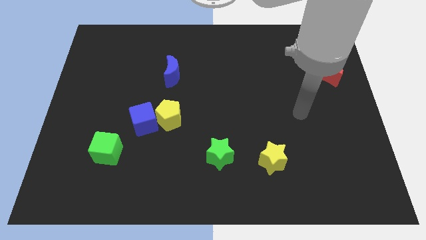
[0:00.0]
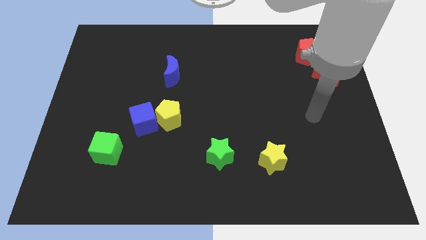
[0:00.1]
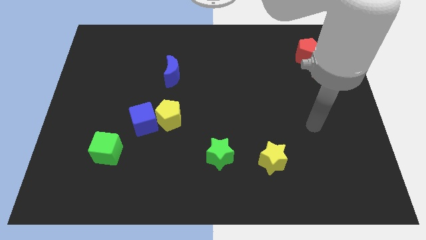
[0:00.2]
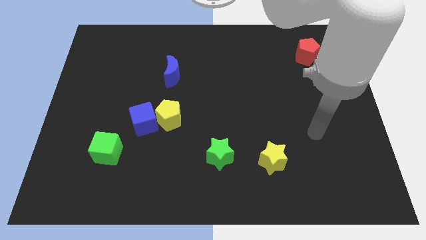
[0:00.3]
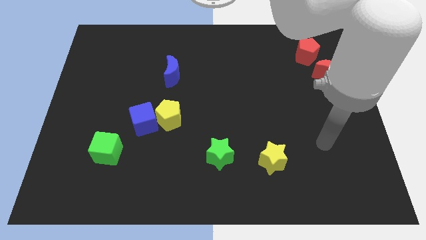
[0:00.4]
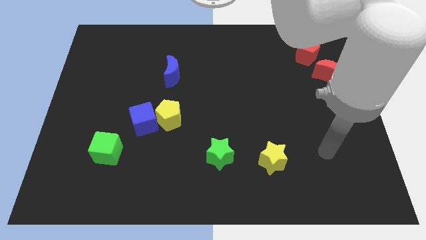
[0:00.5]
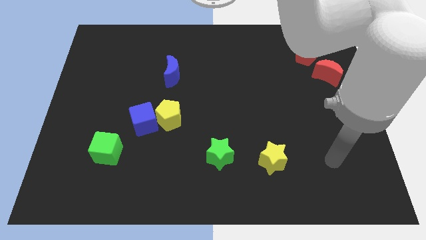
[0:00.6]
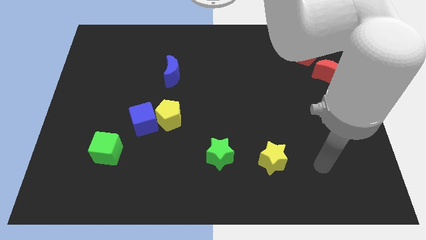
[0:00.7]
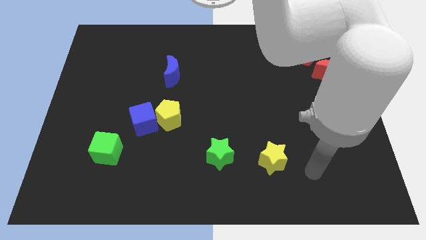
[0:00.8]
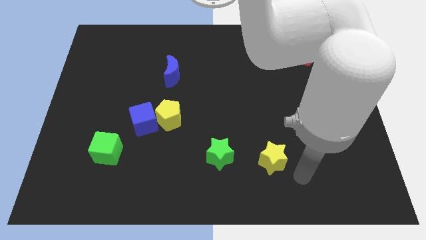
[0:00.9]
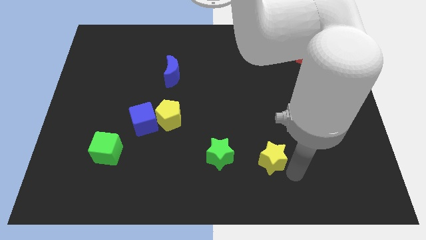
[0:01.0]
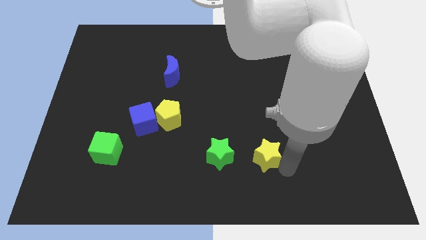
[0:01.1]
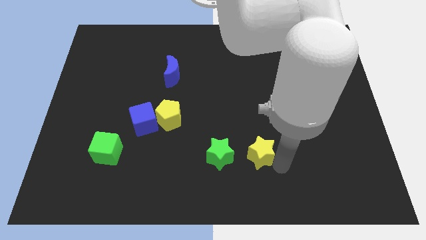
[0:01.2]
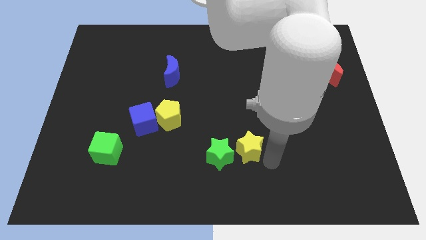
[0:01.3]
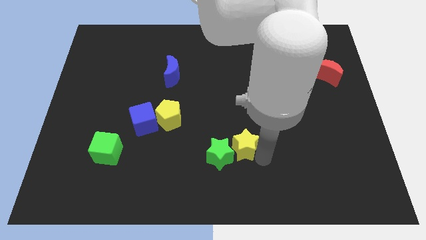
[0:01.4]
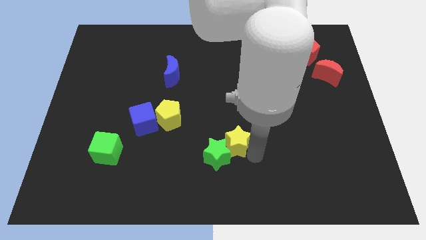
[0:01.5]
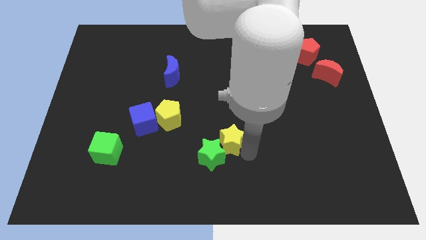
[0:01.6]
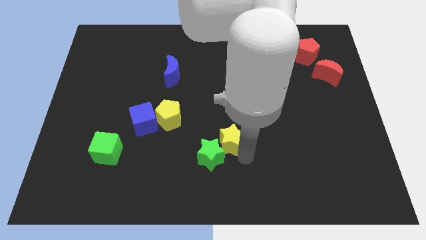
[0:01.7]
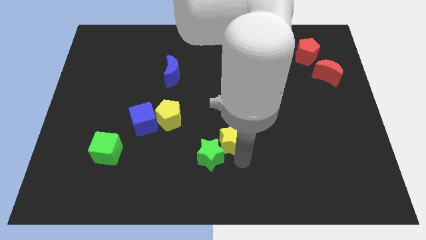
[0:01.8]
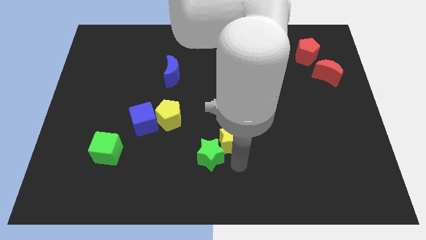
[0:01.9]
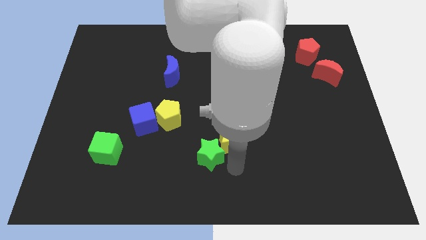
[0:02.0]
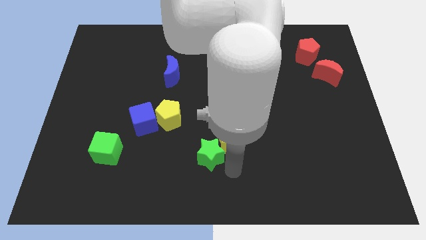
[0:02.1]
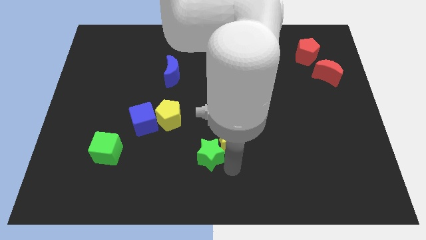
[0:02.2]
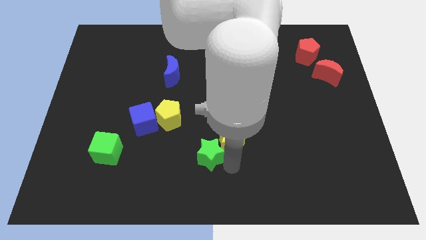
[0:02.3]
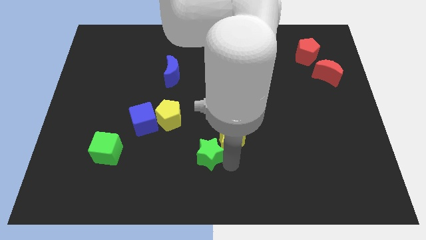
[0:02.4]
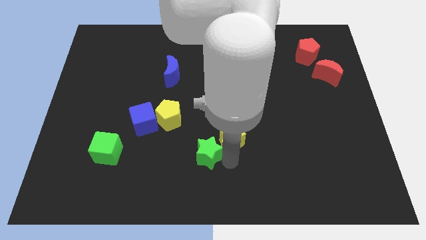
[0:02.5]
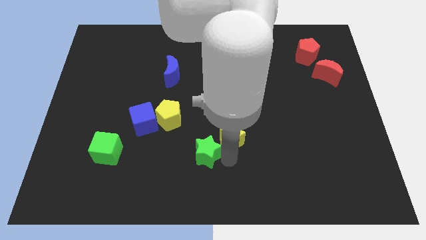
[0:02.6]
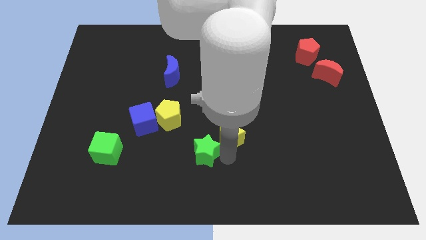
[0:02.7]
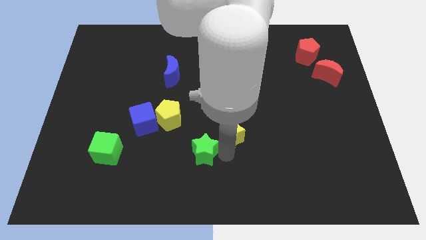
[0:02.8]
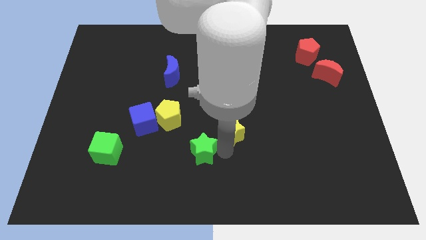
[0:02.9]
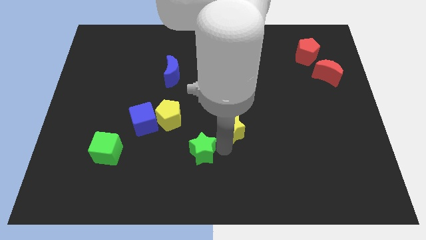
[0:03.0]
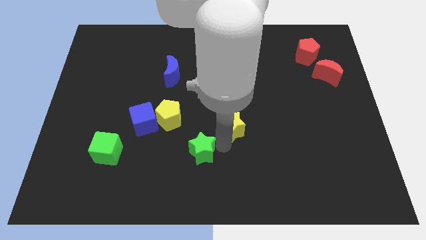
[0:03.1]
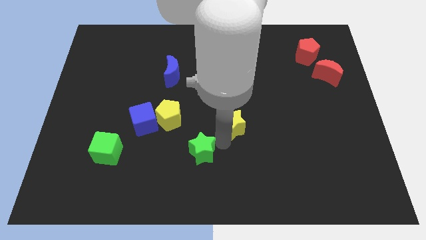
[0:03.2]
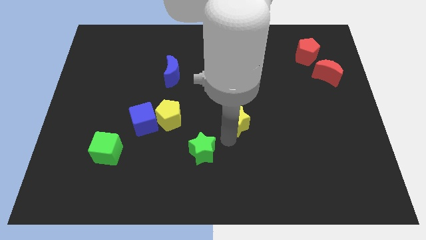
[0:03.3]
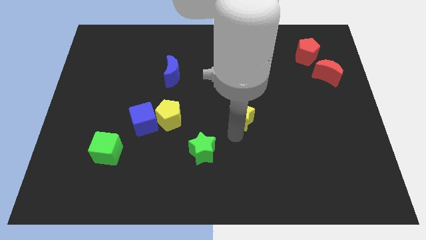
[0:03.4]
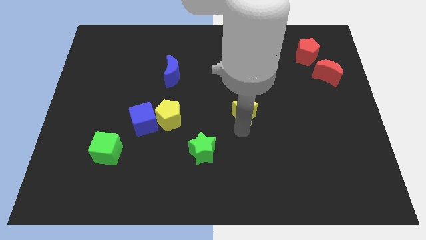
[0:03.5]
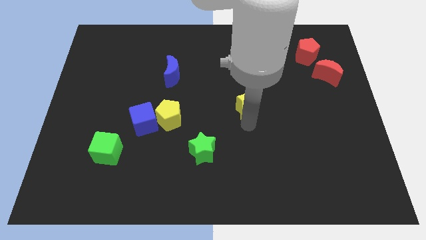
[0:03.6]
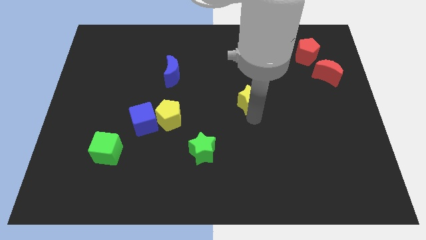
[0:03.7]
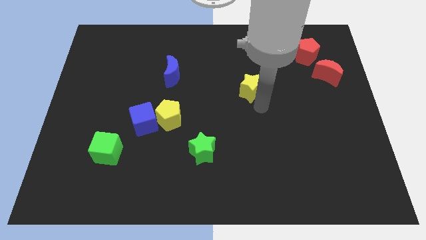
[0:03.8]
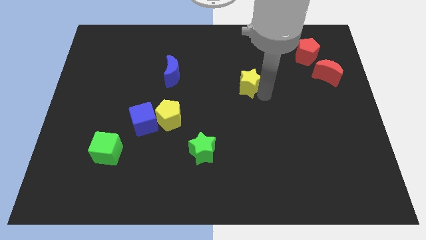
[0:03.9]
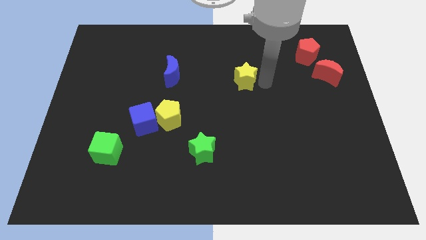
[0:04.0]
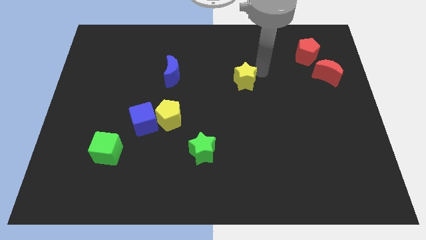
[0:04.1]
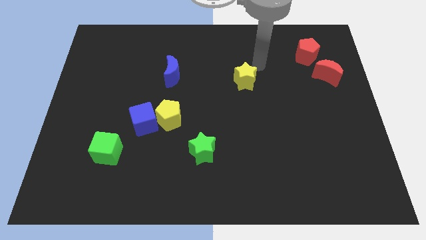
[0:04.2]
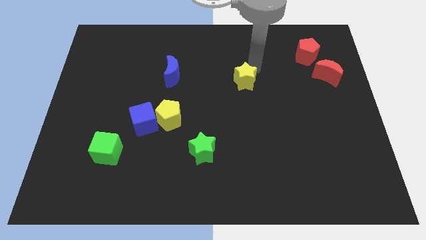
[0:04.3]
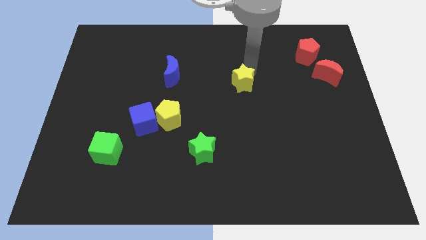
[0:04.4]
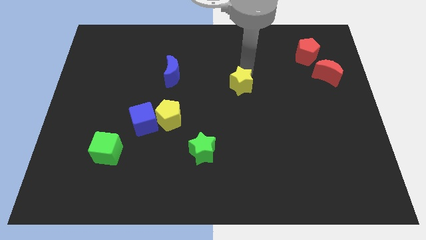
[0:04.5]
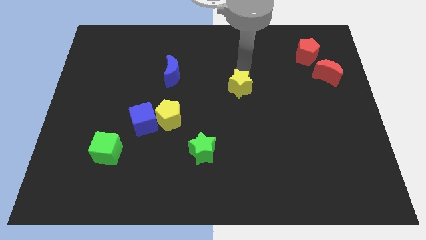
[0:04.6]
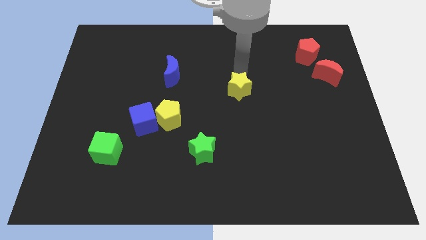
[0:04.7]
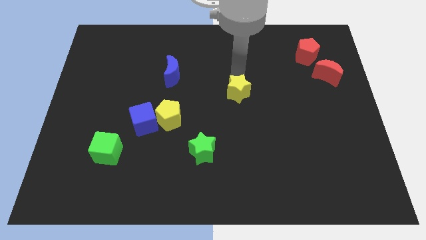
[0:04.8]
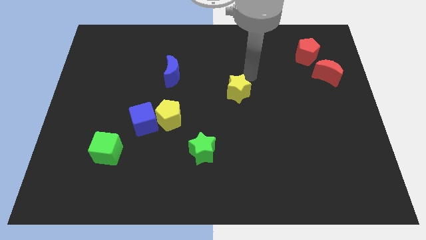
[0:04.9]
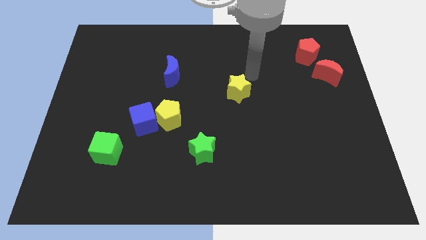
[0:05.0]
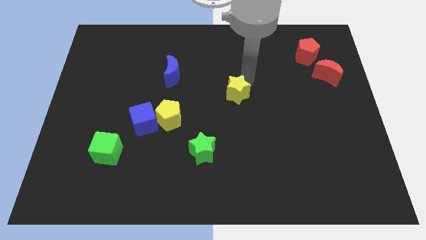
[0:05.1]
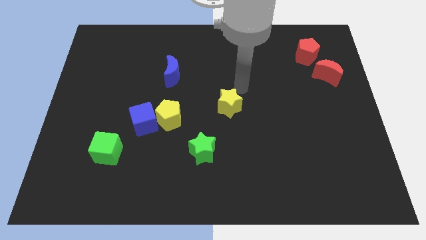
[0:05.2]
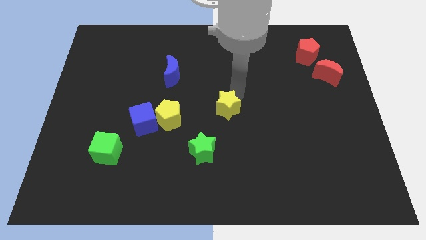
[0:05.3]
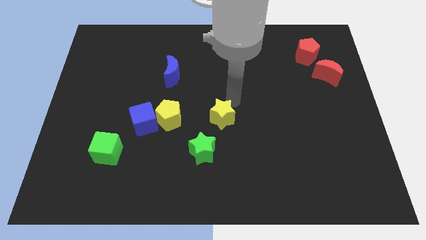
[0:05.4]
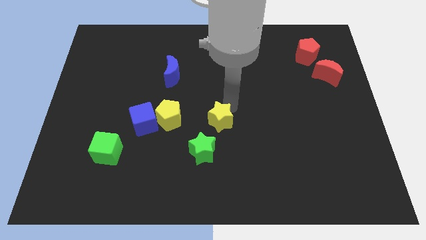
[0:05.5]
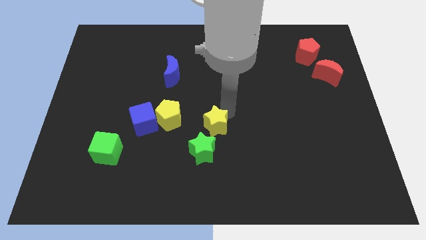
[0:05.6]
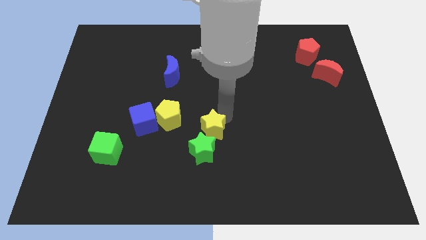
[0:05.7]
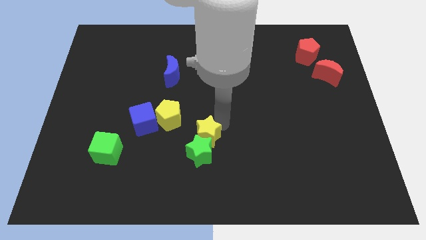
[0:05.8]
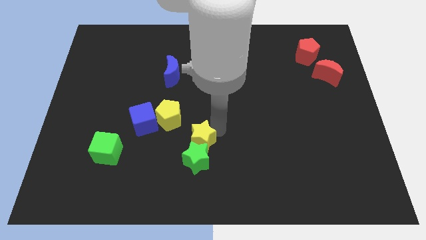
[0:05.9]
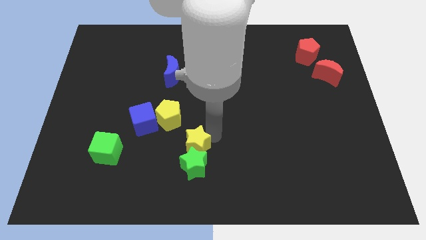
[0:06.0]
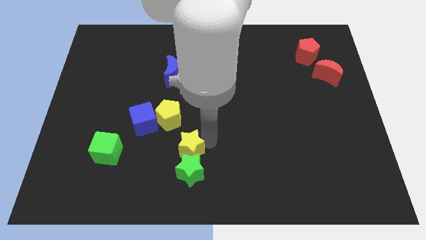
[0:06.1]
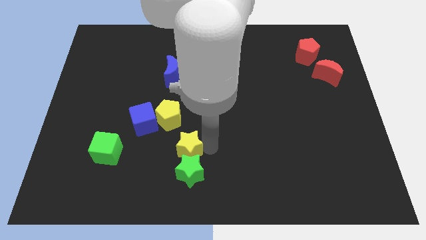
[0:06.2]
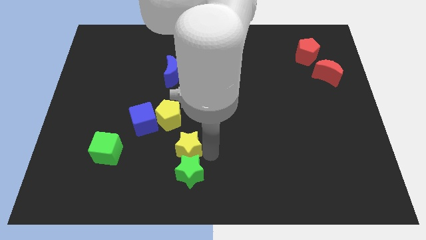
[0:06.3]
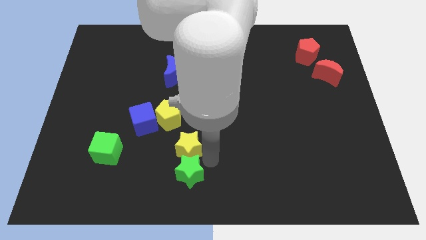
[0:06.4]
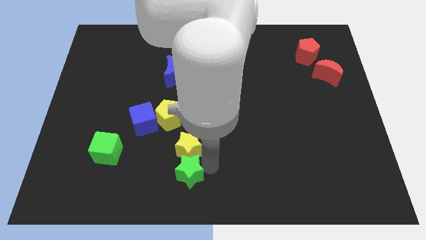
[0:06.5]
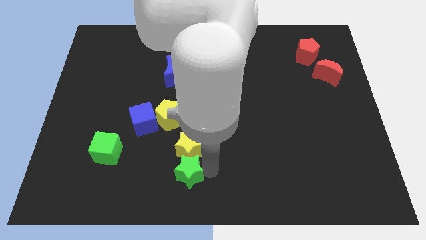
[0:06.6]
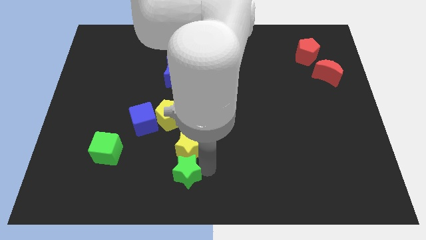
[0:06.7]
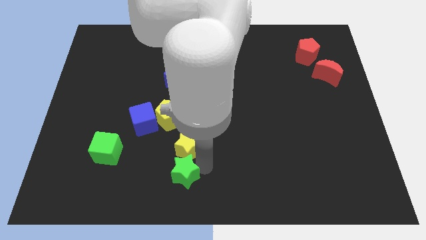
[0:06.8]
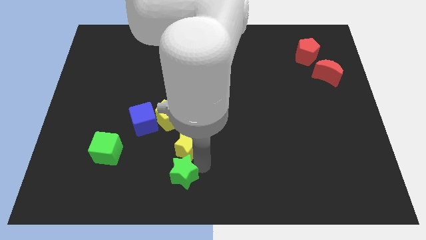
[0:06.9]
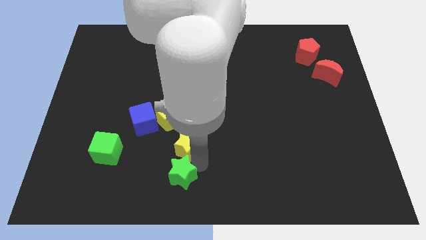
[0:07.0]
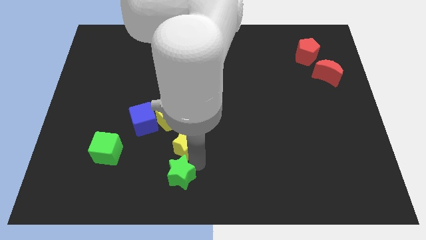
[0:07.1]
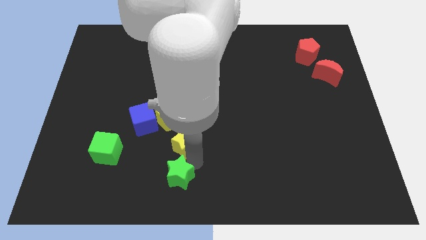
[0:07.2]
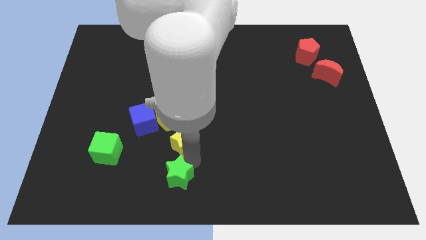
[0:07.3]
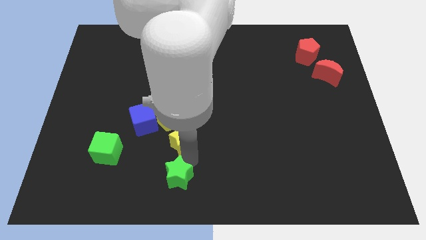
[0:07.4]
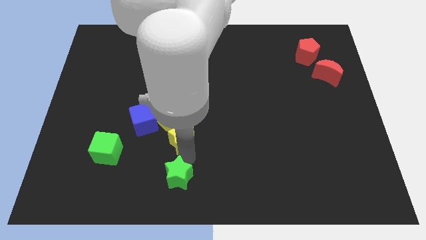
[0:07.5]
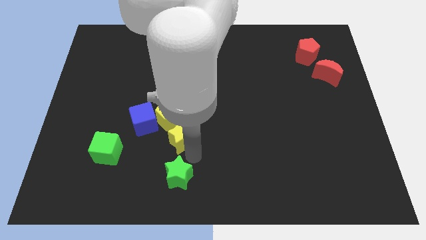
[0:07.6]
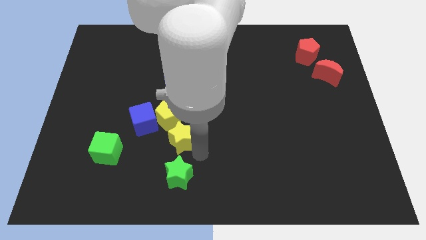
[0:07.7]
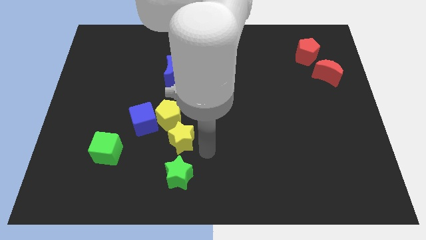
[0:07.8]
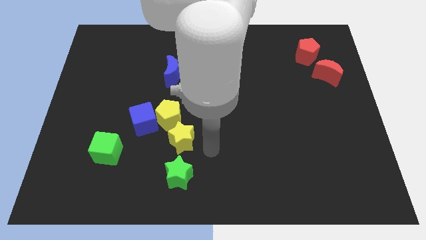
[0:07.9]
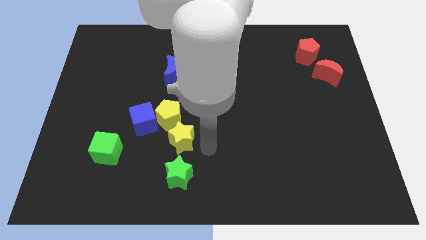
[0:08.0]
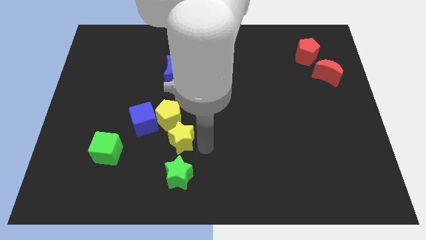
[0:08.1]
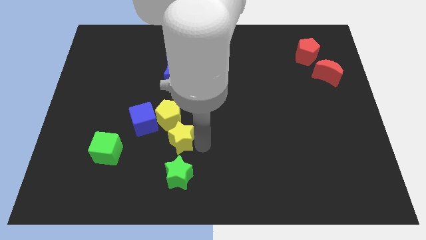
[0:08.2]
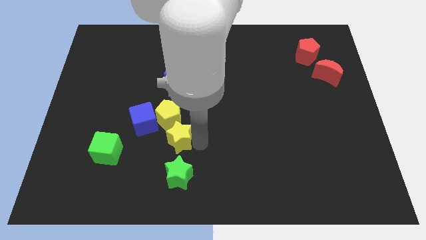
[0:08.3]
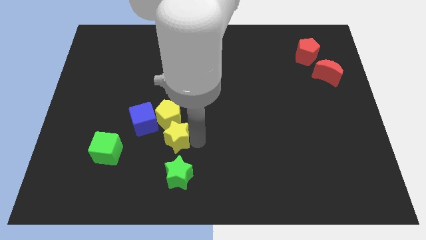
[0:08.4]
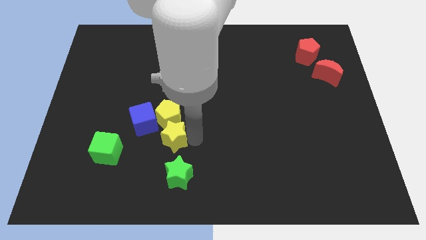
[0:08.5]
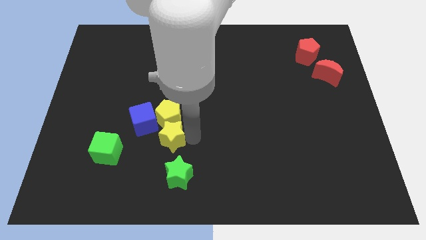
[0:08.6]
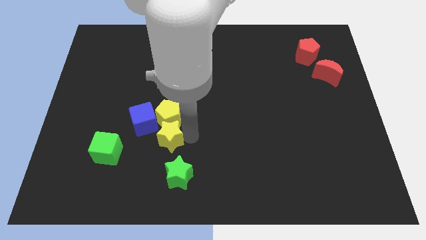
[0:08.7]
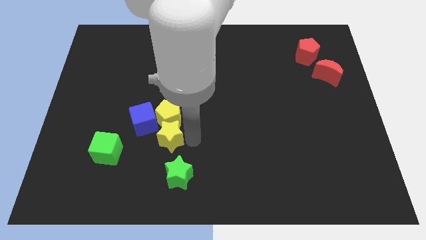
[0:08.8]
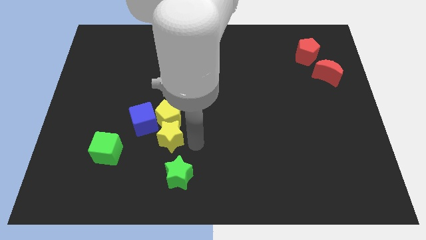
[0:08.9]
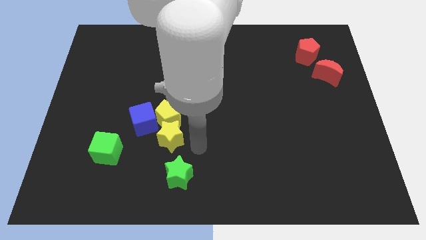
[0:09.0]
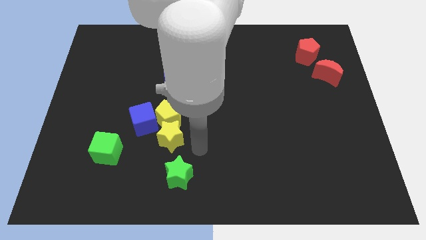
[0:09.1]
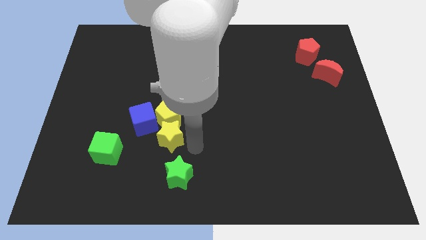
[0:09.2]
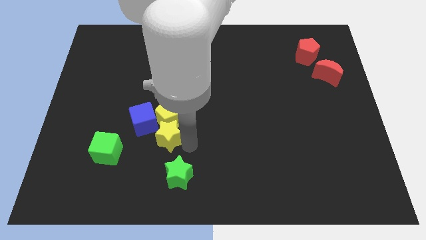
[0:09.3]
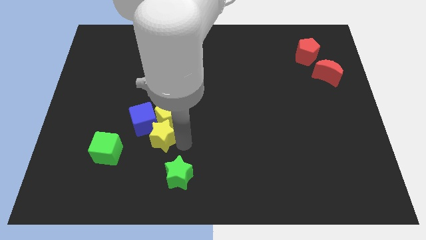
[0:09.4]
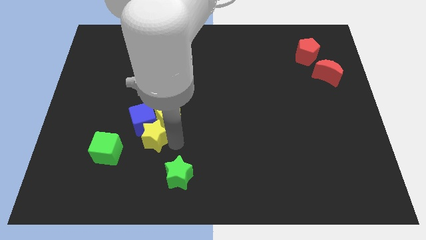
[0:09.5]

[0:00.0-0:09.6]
put the yellow star to the blue cube
